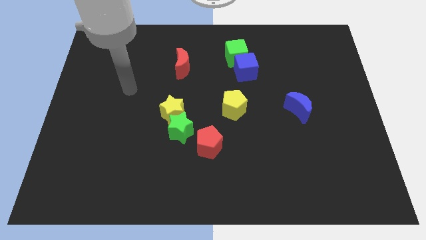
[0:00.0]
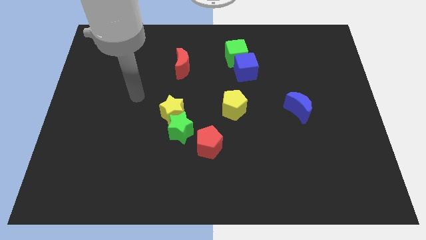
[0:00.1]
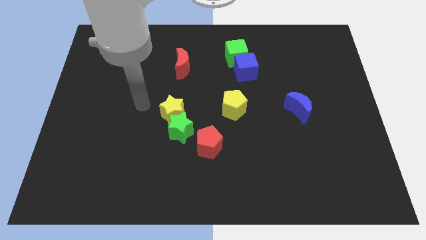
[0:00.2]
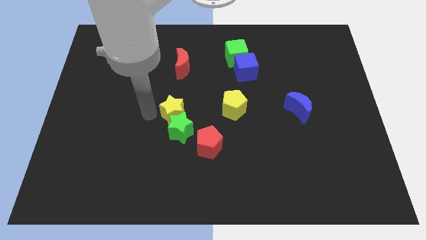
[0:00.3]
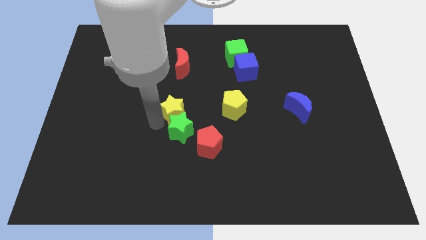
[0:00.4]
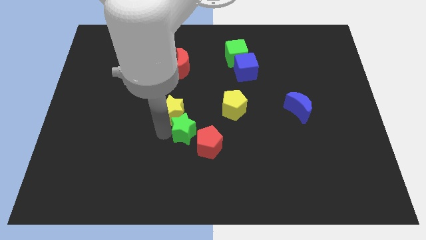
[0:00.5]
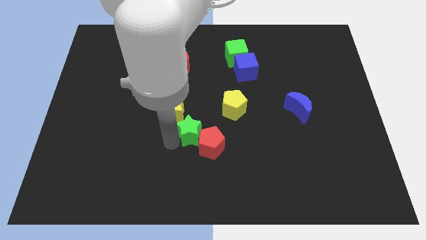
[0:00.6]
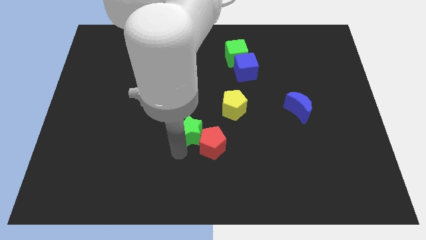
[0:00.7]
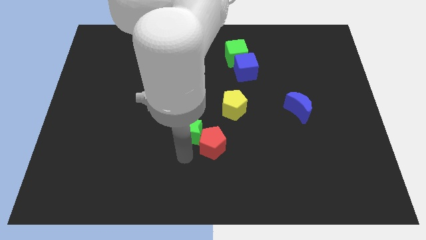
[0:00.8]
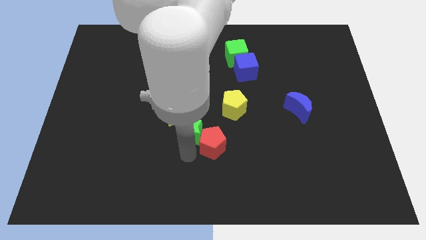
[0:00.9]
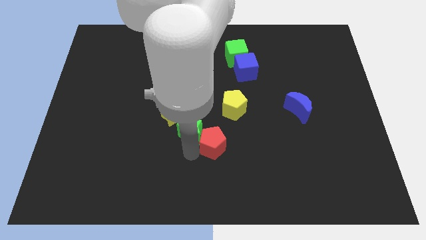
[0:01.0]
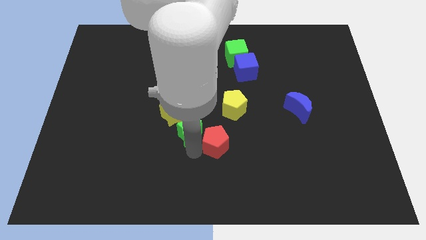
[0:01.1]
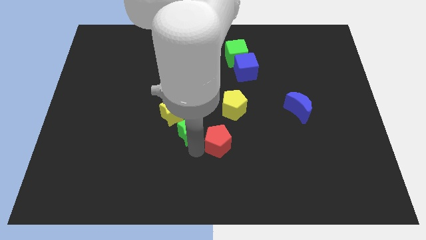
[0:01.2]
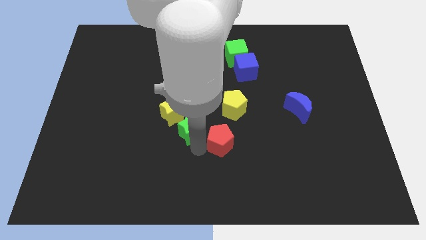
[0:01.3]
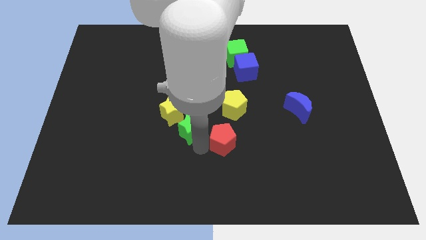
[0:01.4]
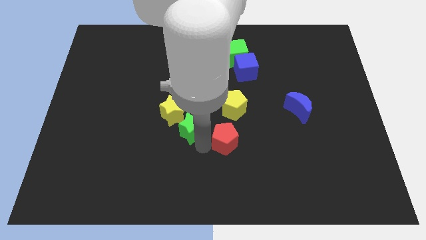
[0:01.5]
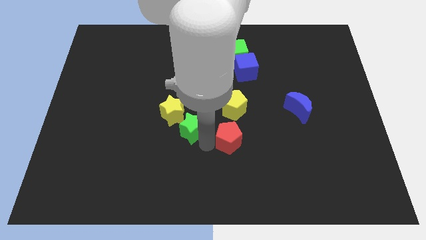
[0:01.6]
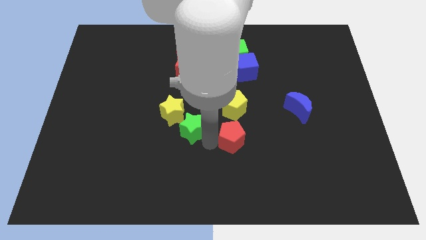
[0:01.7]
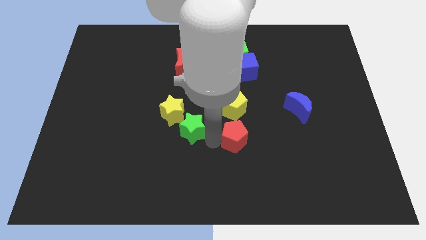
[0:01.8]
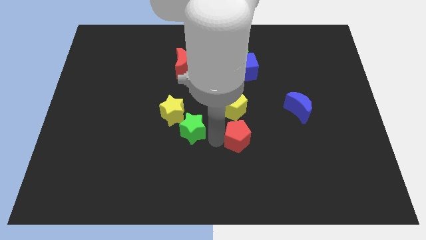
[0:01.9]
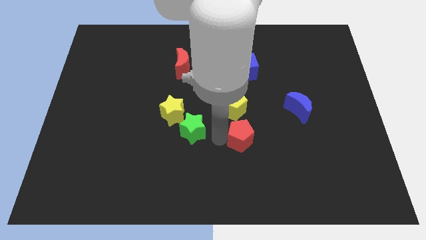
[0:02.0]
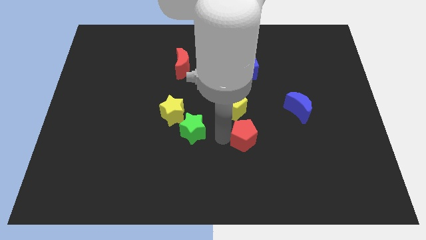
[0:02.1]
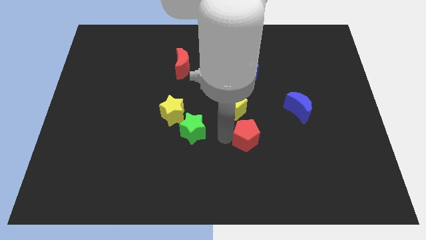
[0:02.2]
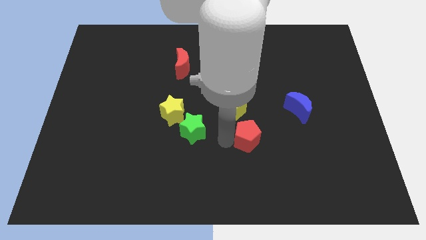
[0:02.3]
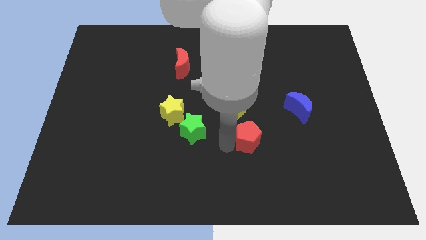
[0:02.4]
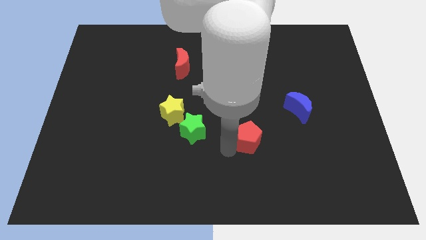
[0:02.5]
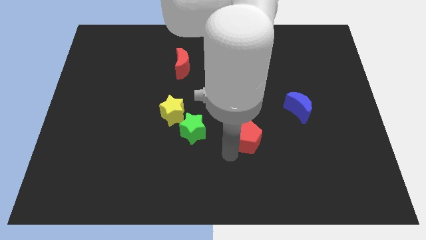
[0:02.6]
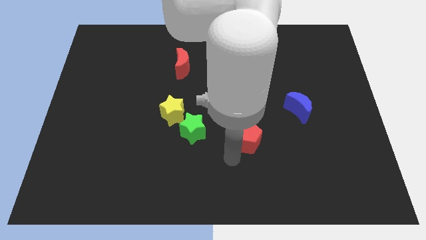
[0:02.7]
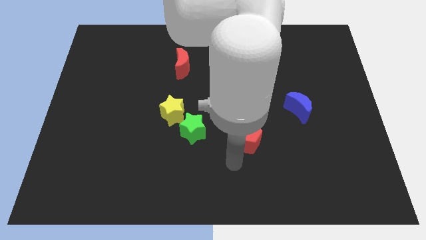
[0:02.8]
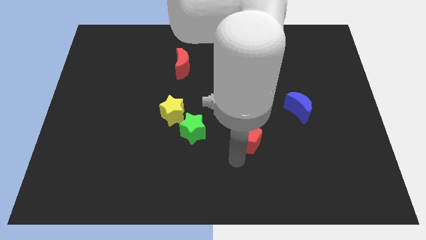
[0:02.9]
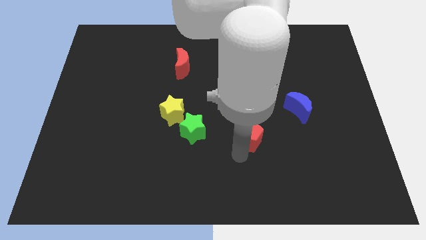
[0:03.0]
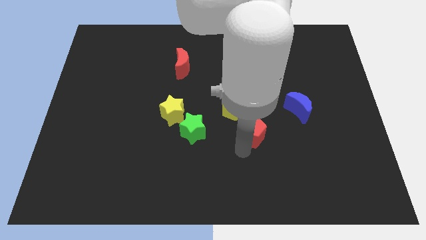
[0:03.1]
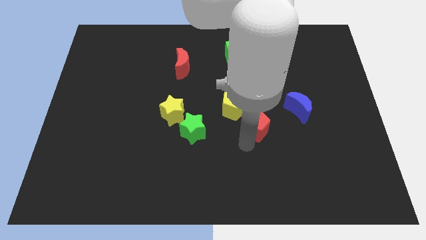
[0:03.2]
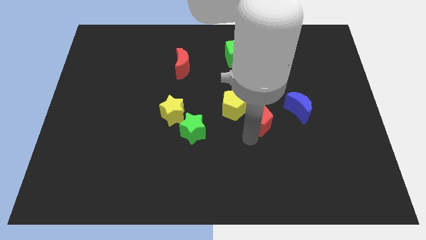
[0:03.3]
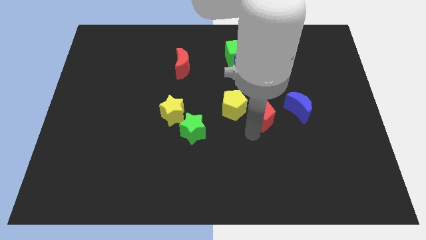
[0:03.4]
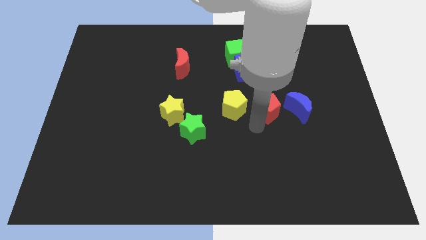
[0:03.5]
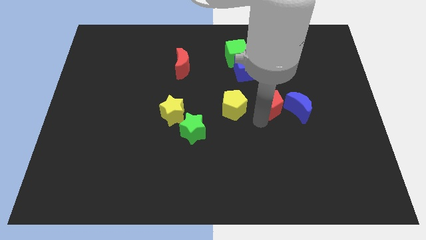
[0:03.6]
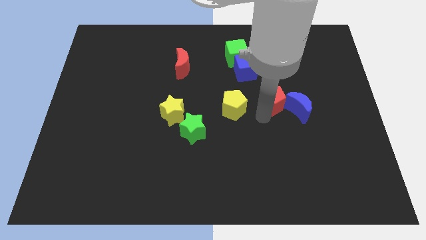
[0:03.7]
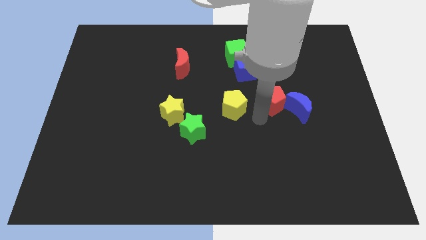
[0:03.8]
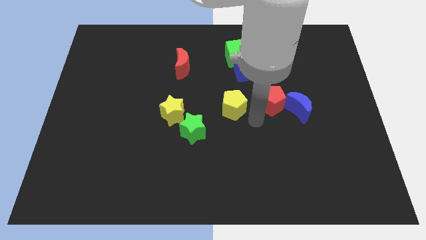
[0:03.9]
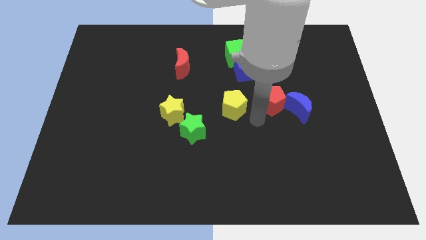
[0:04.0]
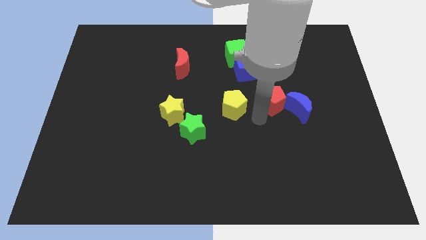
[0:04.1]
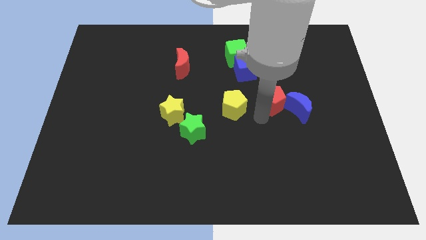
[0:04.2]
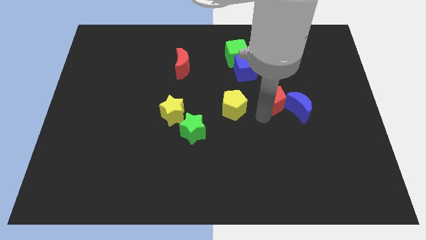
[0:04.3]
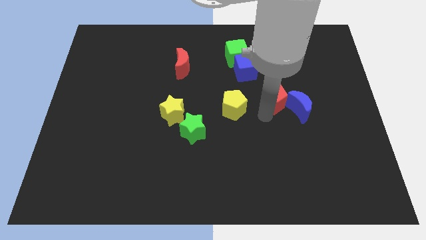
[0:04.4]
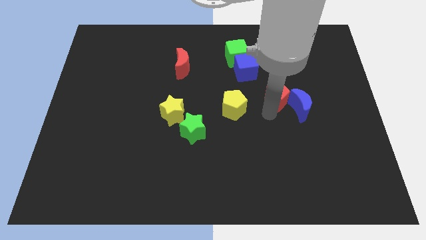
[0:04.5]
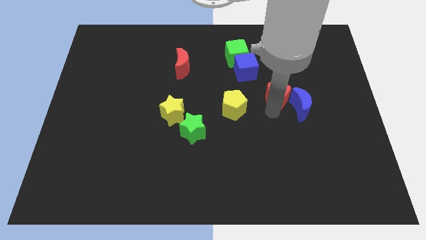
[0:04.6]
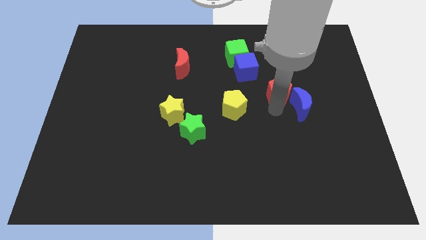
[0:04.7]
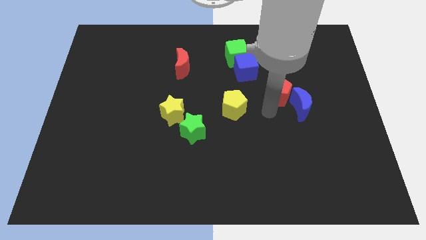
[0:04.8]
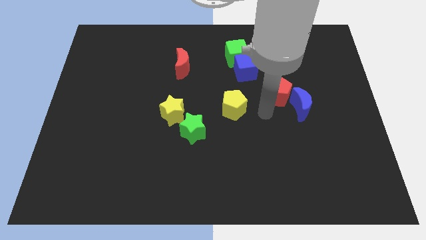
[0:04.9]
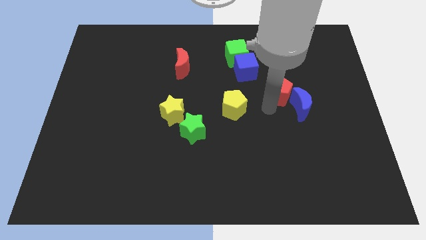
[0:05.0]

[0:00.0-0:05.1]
push the red pentagon above the blue moon

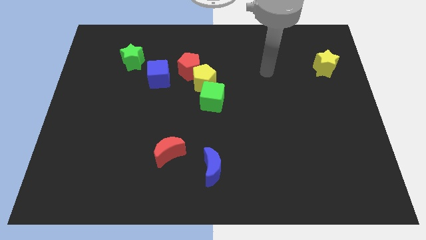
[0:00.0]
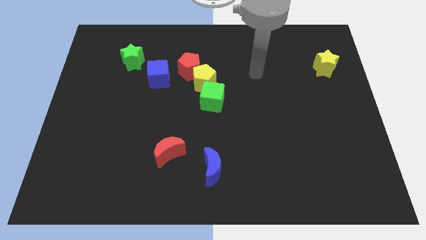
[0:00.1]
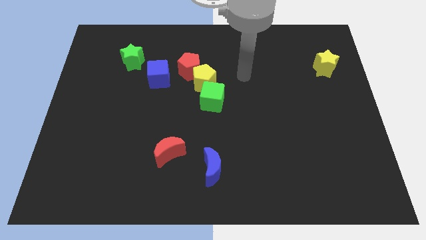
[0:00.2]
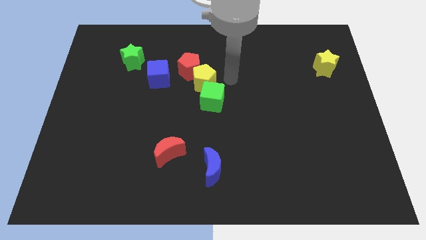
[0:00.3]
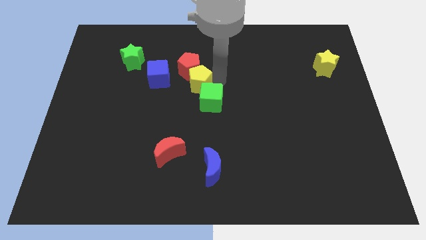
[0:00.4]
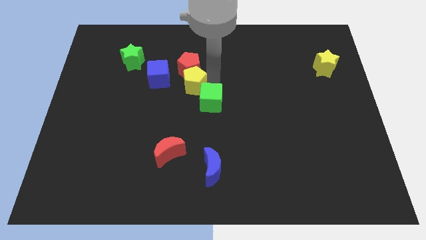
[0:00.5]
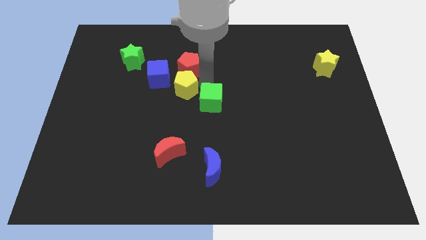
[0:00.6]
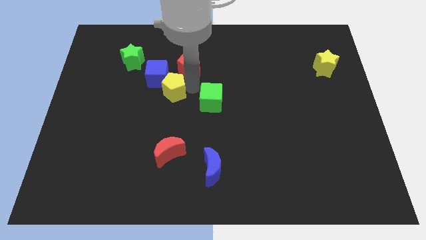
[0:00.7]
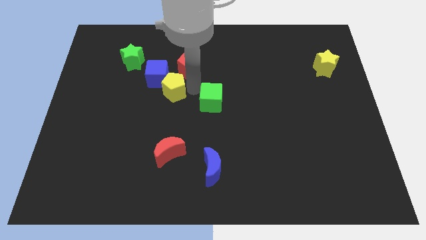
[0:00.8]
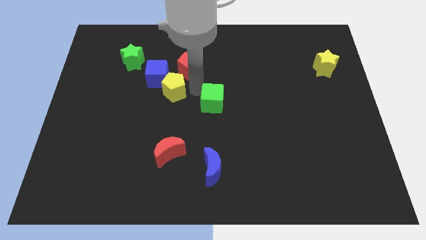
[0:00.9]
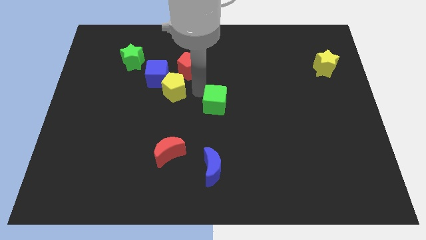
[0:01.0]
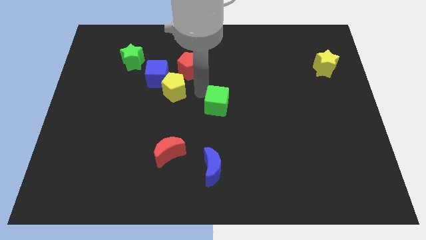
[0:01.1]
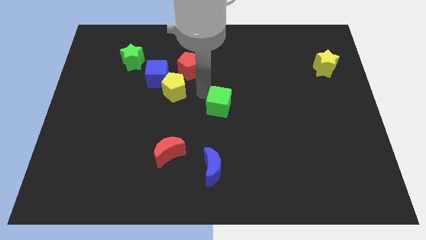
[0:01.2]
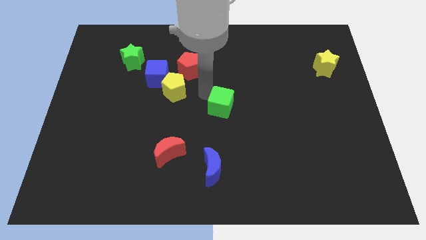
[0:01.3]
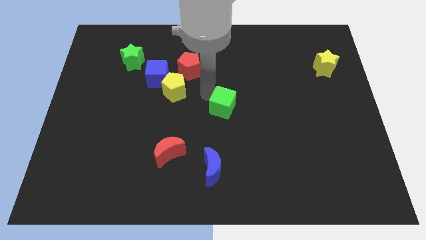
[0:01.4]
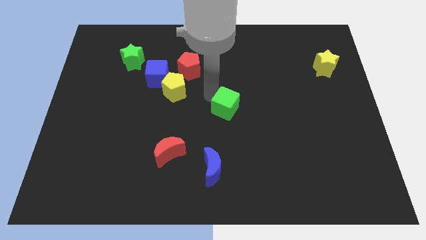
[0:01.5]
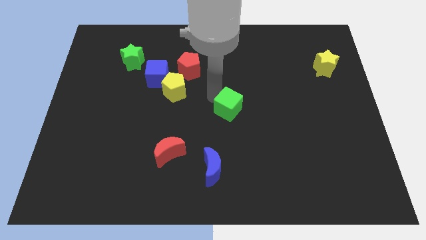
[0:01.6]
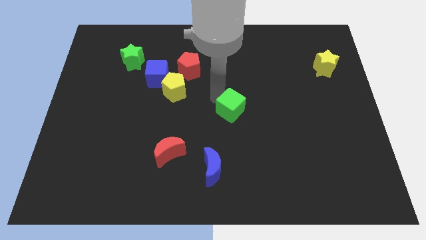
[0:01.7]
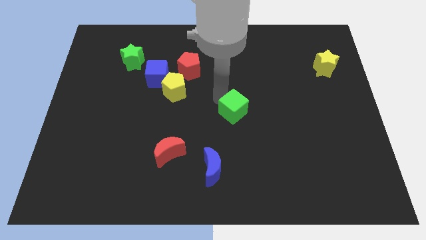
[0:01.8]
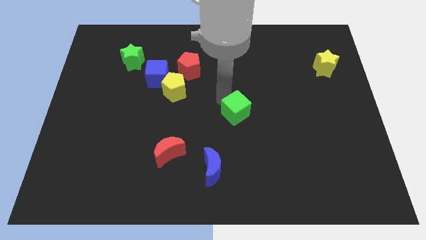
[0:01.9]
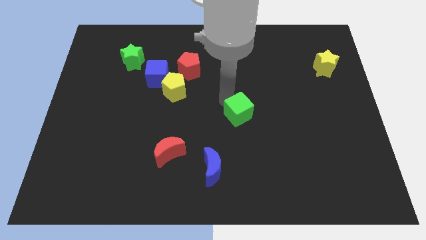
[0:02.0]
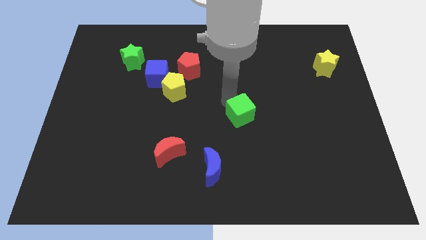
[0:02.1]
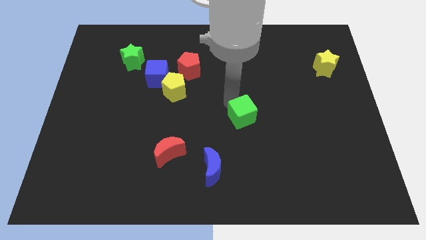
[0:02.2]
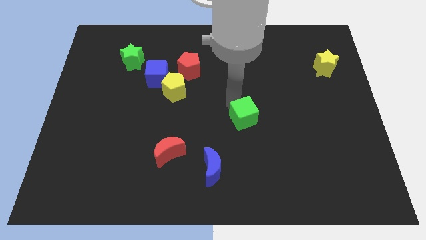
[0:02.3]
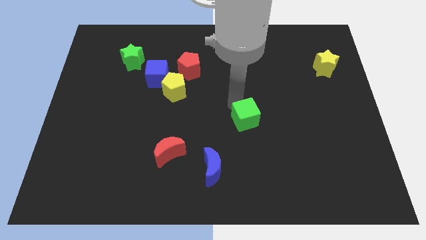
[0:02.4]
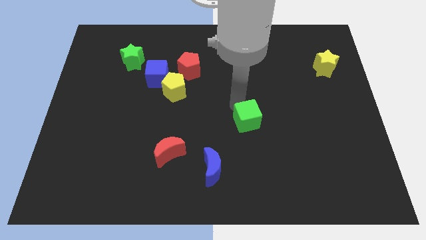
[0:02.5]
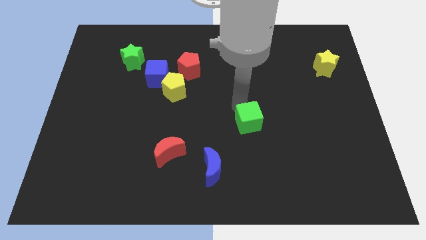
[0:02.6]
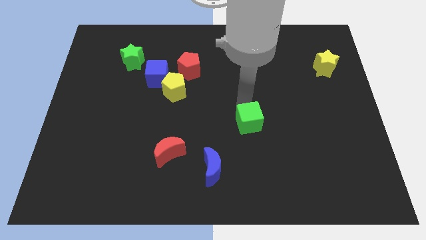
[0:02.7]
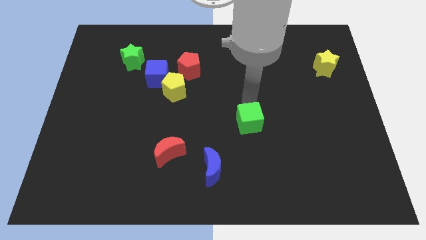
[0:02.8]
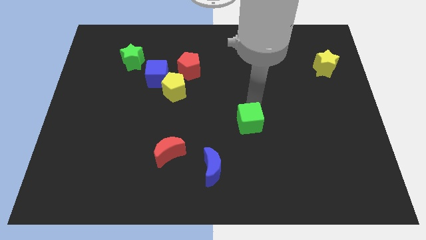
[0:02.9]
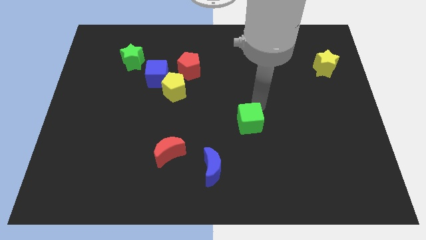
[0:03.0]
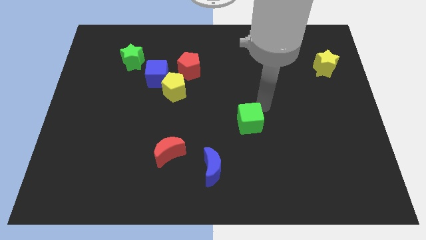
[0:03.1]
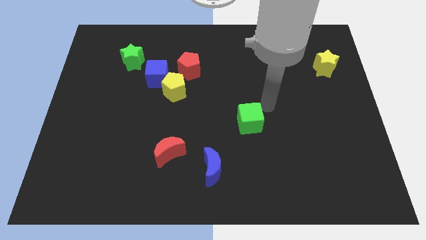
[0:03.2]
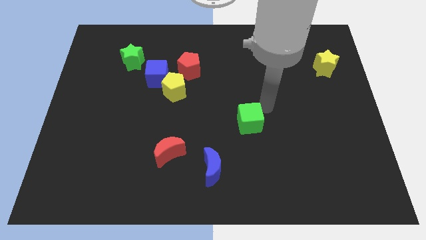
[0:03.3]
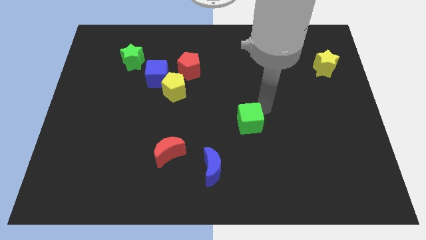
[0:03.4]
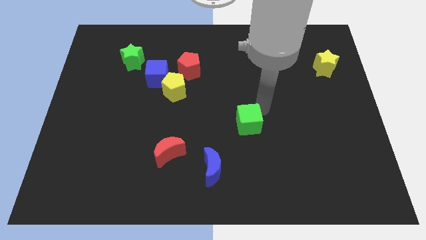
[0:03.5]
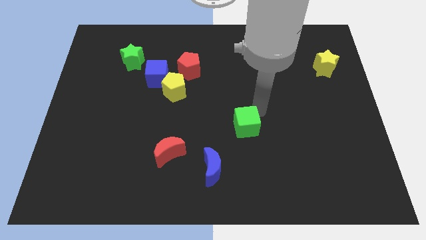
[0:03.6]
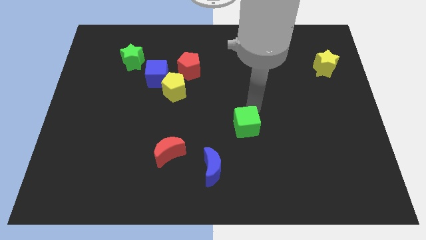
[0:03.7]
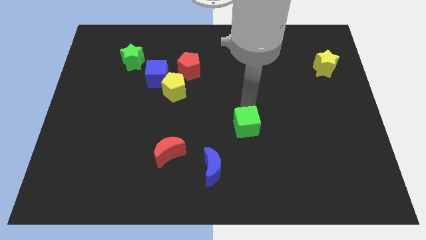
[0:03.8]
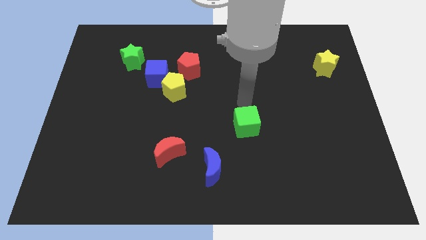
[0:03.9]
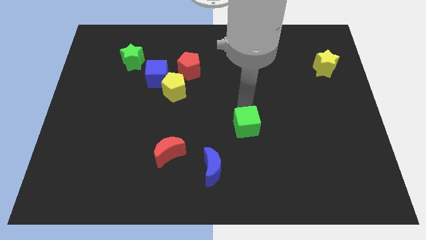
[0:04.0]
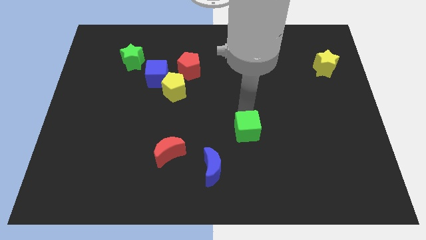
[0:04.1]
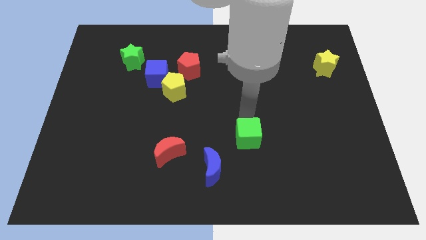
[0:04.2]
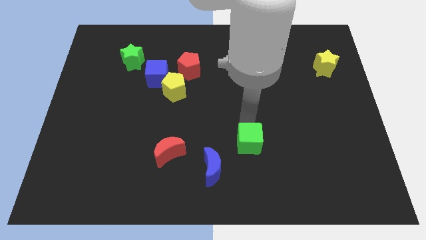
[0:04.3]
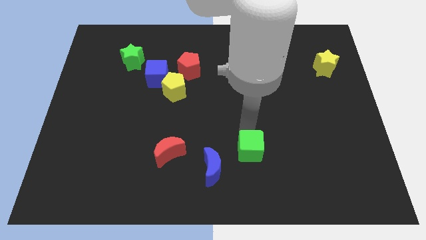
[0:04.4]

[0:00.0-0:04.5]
move the green cube to the right side of the blue moon
